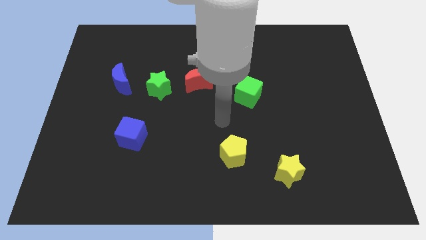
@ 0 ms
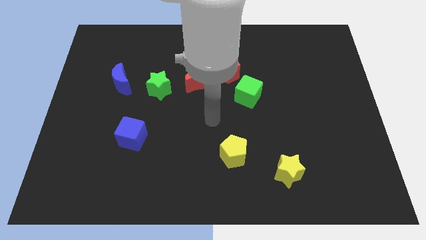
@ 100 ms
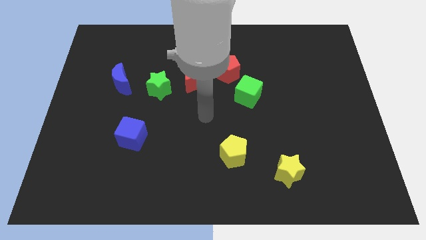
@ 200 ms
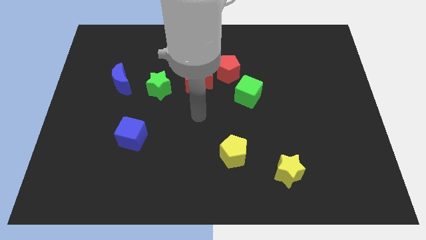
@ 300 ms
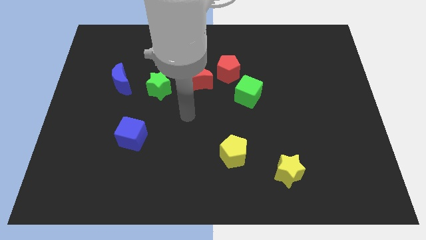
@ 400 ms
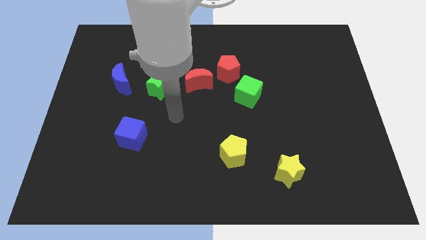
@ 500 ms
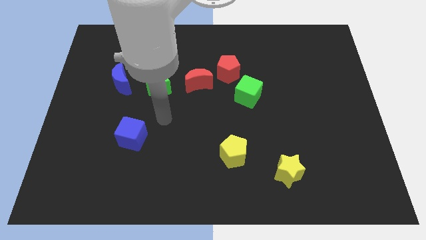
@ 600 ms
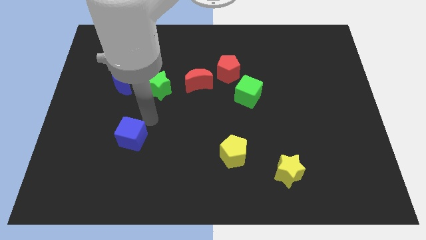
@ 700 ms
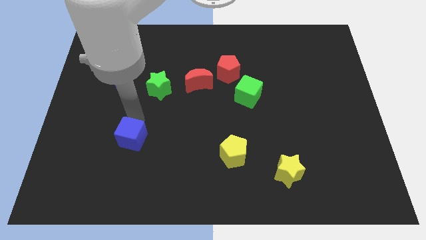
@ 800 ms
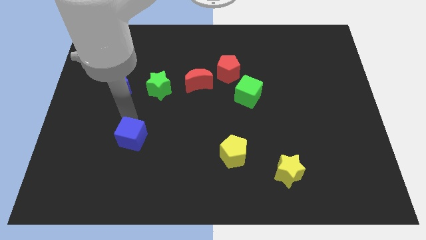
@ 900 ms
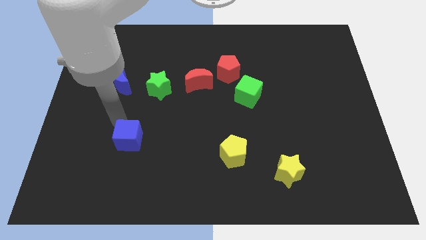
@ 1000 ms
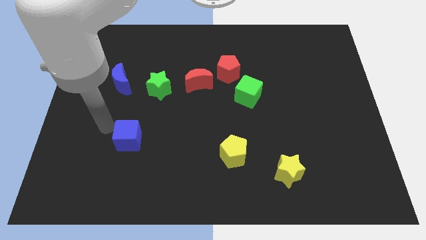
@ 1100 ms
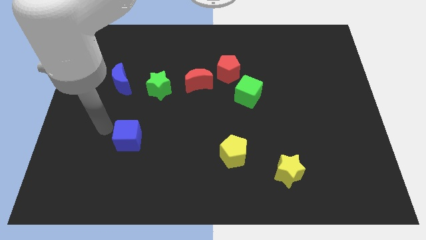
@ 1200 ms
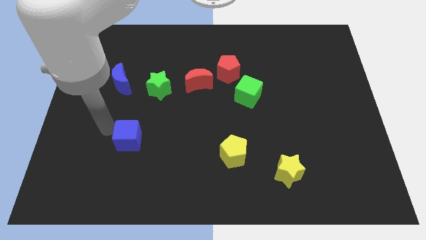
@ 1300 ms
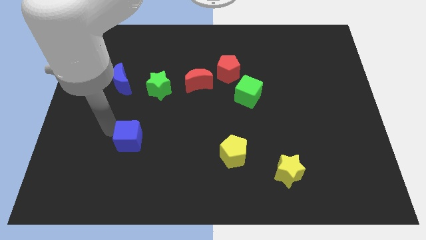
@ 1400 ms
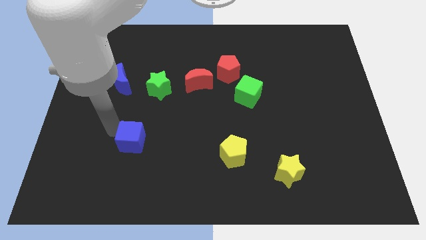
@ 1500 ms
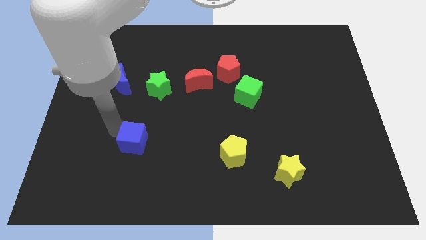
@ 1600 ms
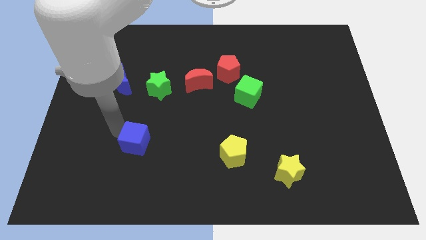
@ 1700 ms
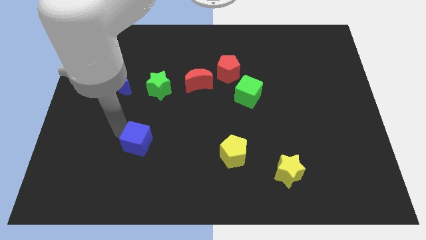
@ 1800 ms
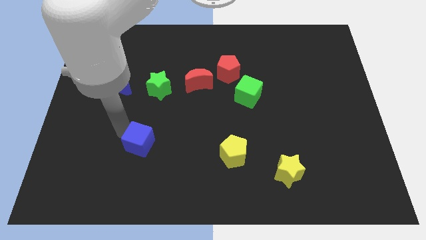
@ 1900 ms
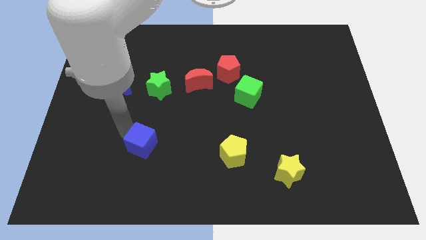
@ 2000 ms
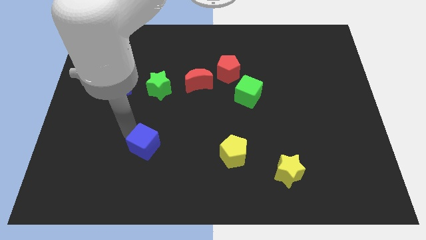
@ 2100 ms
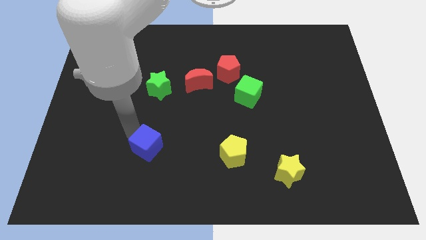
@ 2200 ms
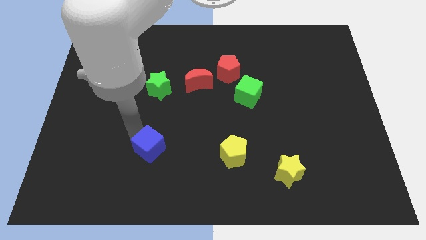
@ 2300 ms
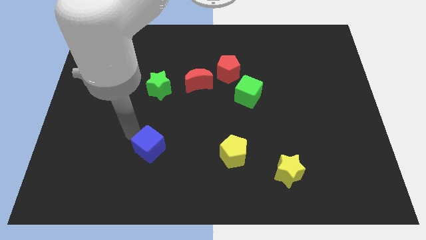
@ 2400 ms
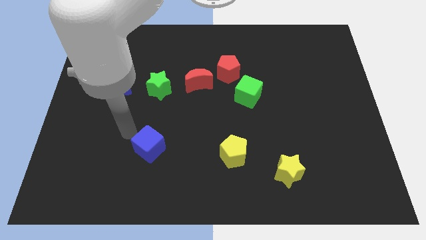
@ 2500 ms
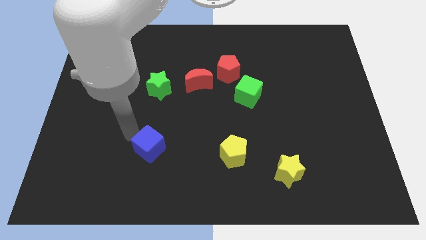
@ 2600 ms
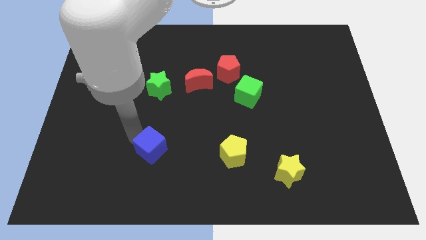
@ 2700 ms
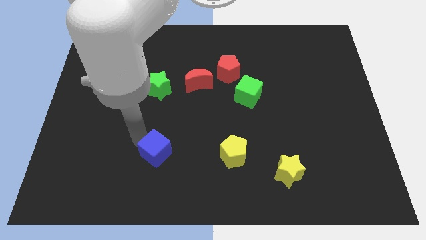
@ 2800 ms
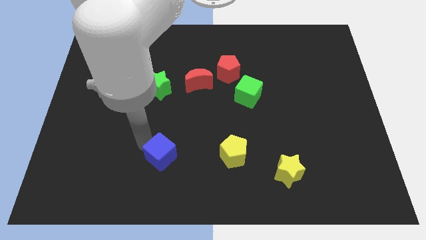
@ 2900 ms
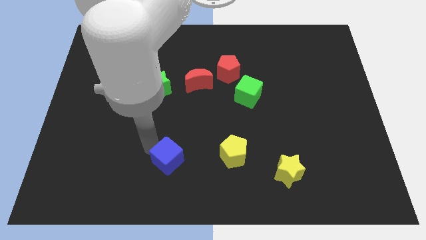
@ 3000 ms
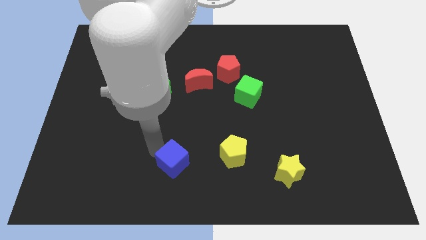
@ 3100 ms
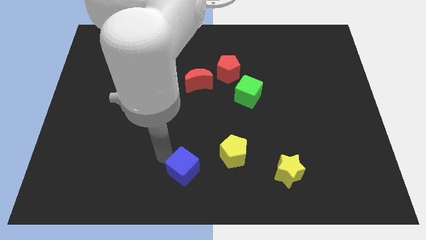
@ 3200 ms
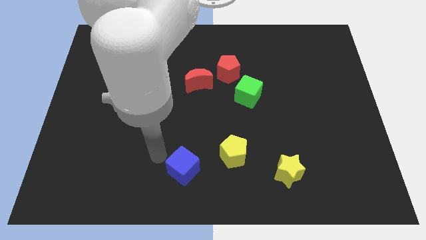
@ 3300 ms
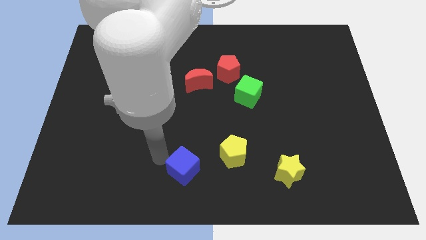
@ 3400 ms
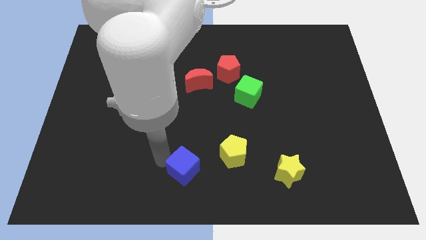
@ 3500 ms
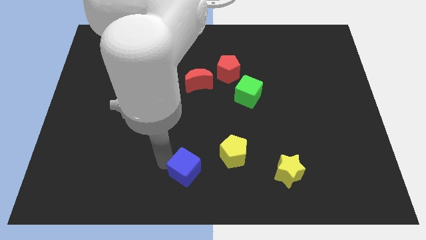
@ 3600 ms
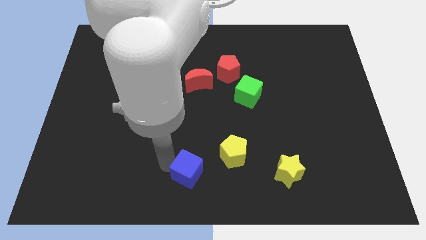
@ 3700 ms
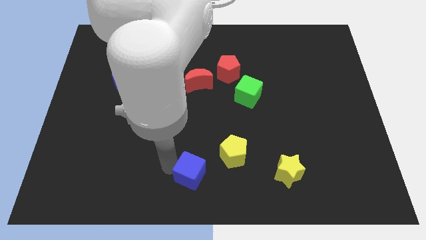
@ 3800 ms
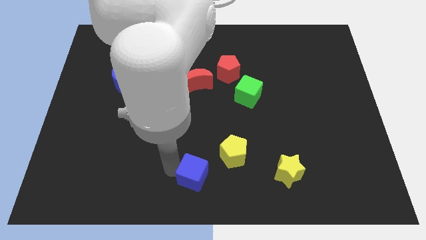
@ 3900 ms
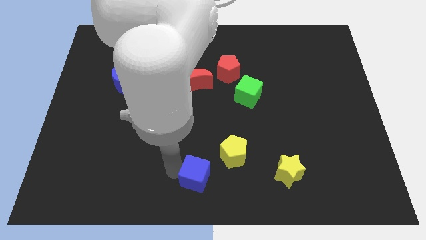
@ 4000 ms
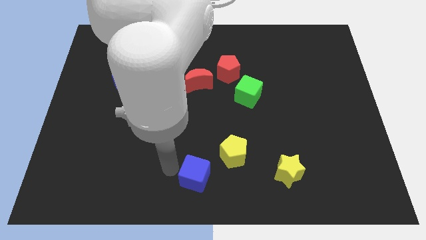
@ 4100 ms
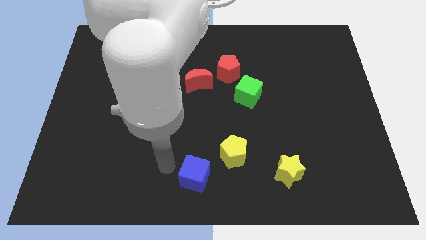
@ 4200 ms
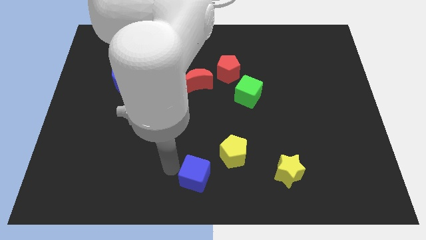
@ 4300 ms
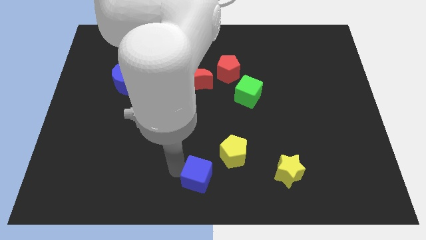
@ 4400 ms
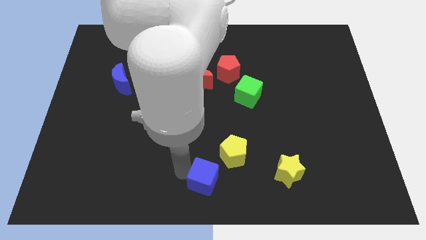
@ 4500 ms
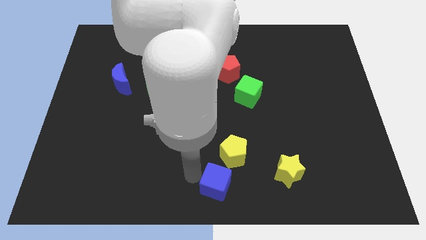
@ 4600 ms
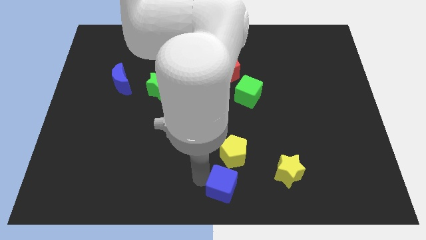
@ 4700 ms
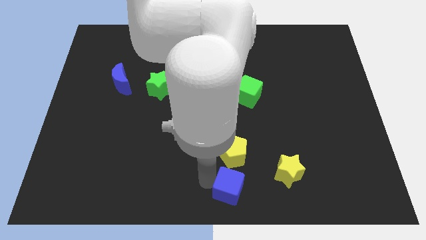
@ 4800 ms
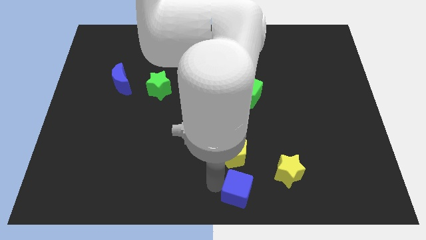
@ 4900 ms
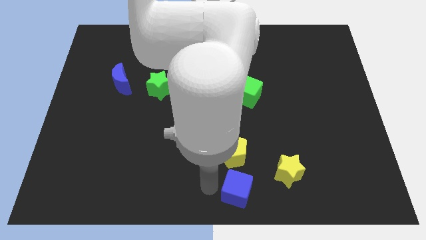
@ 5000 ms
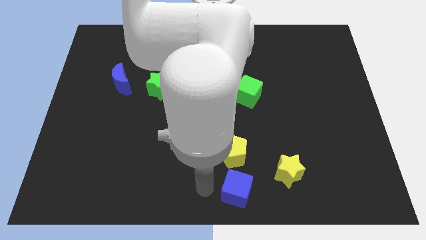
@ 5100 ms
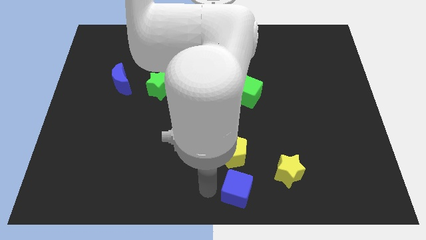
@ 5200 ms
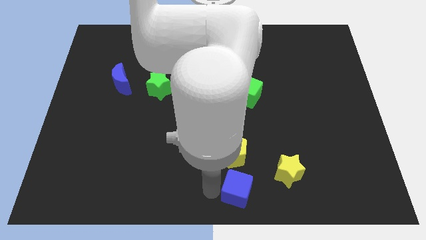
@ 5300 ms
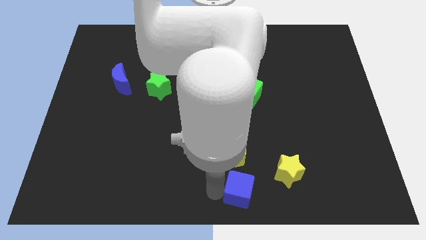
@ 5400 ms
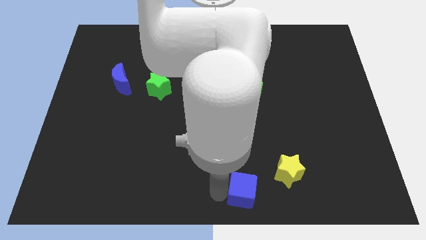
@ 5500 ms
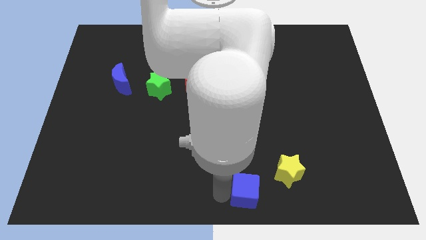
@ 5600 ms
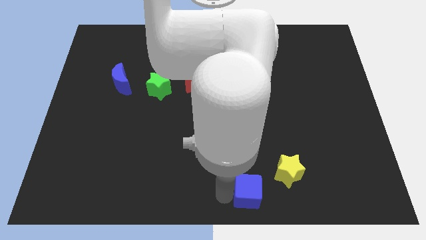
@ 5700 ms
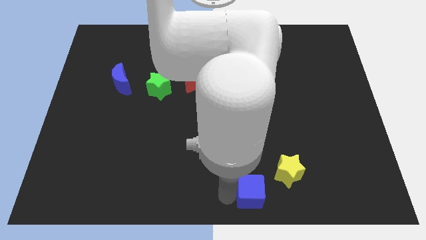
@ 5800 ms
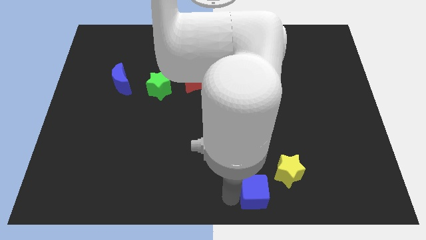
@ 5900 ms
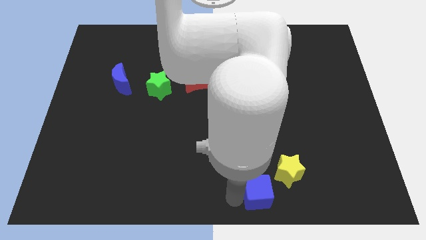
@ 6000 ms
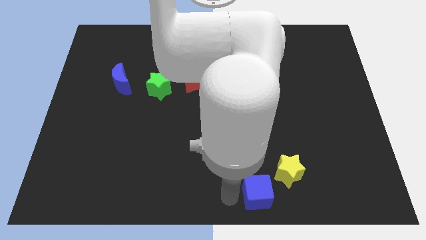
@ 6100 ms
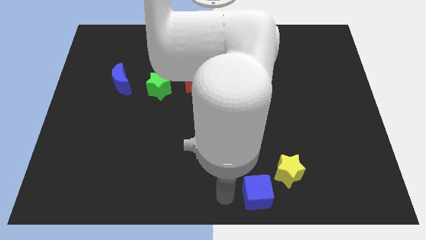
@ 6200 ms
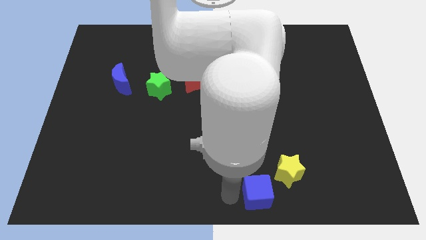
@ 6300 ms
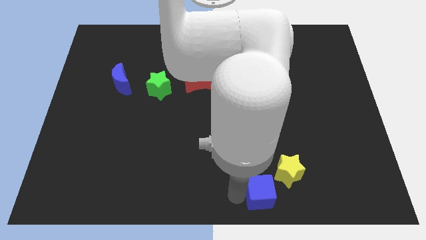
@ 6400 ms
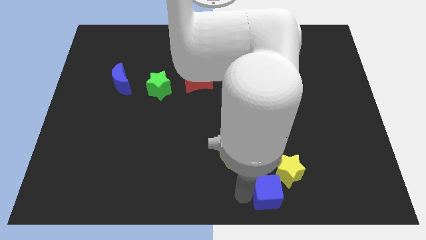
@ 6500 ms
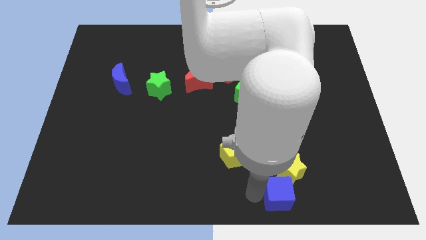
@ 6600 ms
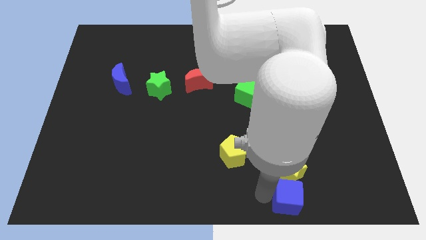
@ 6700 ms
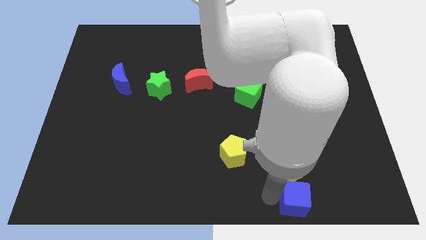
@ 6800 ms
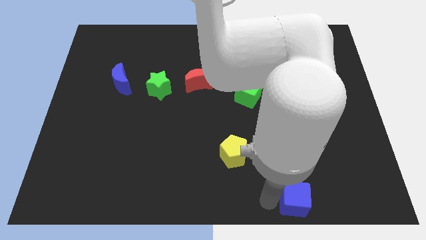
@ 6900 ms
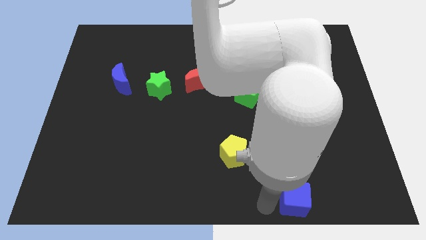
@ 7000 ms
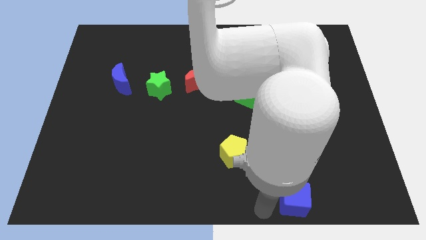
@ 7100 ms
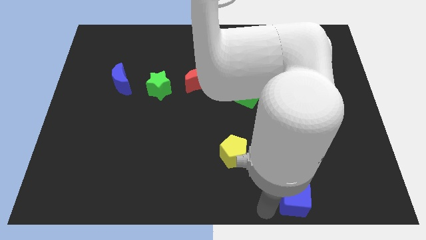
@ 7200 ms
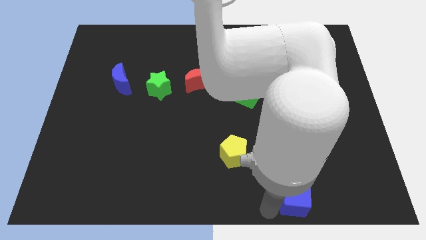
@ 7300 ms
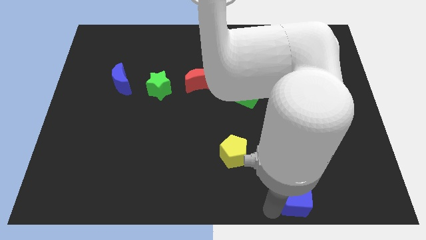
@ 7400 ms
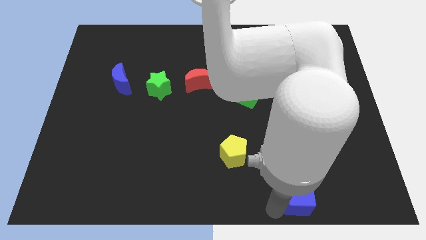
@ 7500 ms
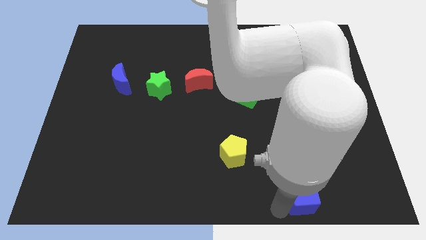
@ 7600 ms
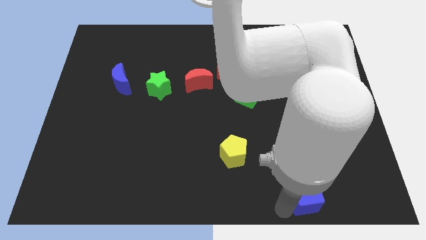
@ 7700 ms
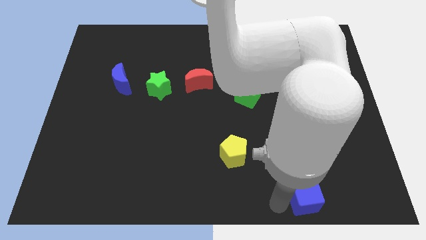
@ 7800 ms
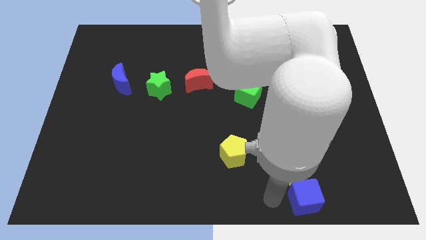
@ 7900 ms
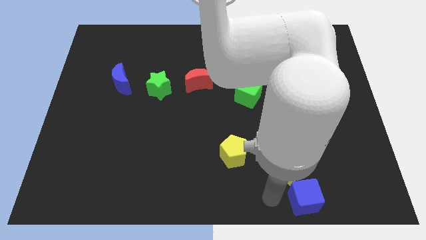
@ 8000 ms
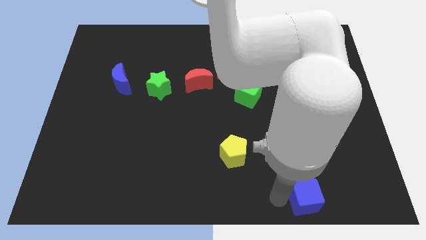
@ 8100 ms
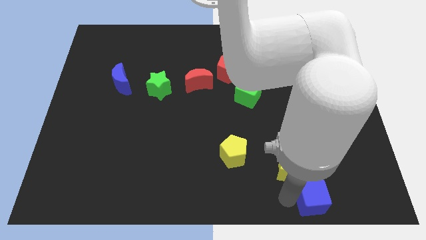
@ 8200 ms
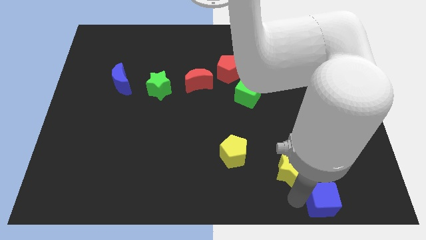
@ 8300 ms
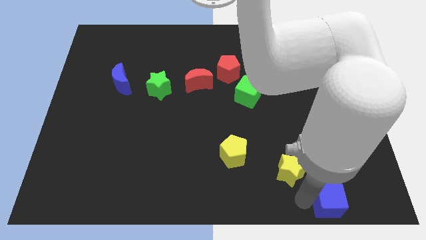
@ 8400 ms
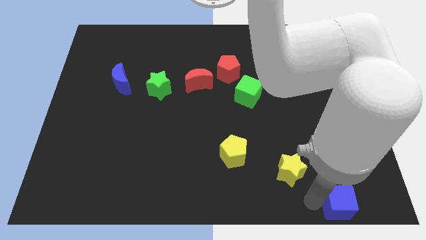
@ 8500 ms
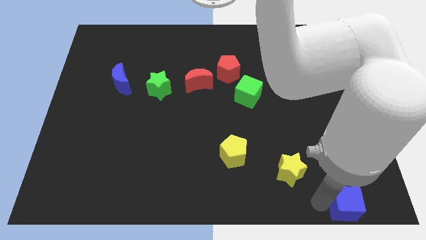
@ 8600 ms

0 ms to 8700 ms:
push the blue cube to the bottom right of the board
